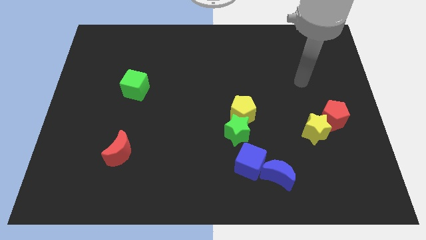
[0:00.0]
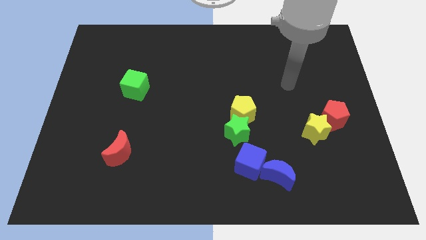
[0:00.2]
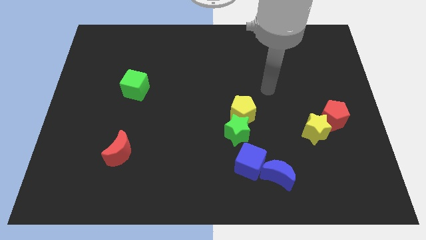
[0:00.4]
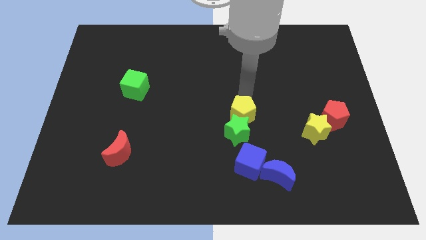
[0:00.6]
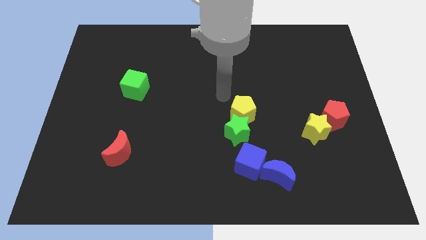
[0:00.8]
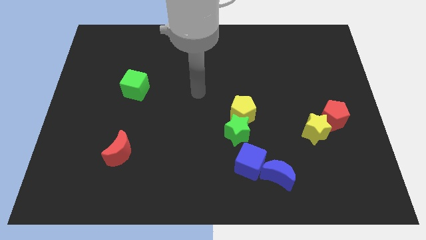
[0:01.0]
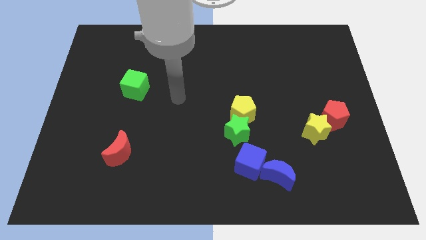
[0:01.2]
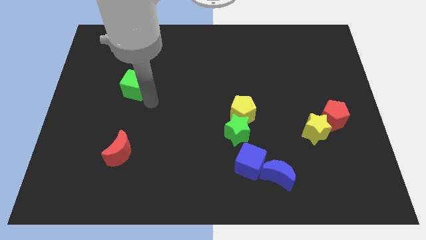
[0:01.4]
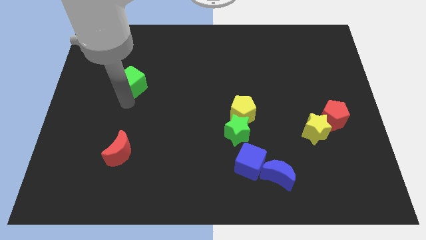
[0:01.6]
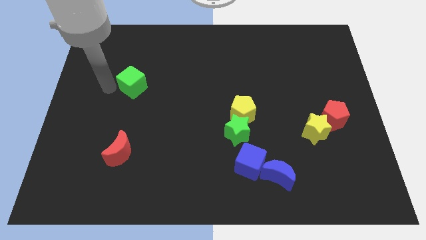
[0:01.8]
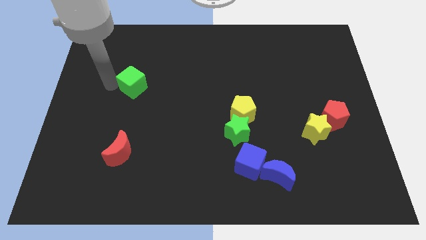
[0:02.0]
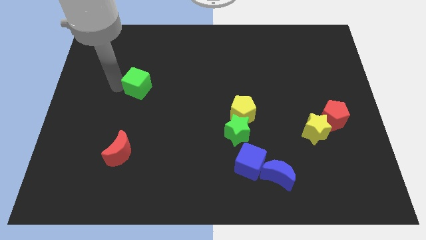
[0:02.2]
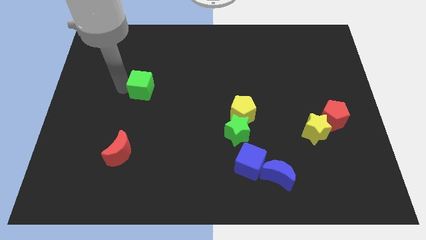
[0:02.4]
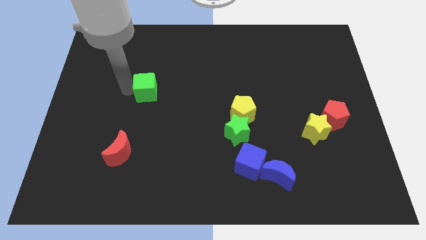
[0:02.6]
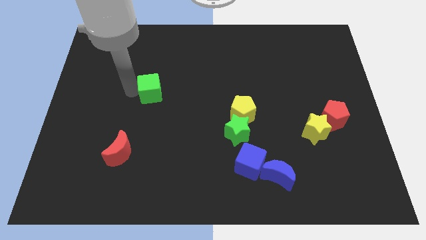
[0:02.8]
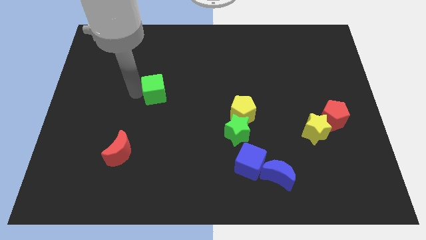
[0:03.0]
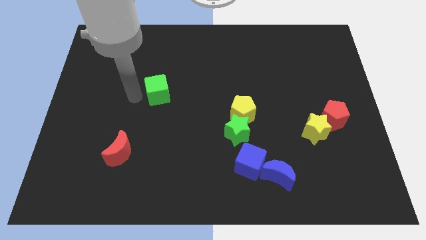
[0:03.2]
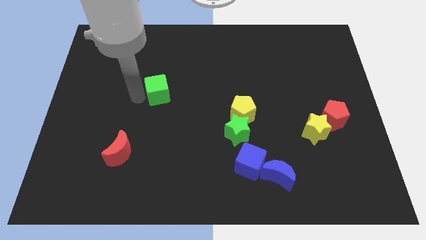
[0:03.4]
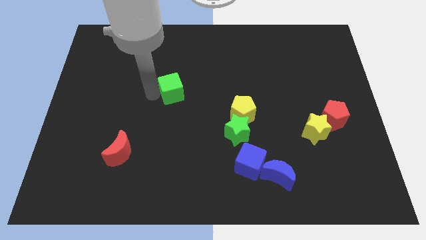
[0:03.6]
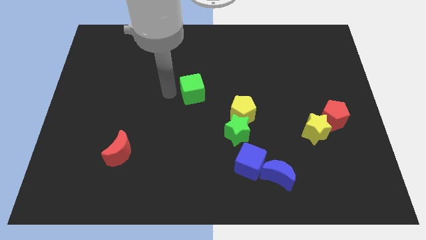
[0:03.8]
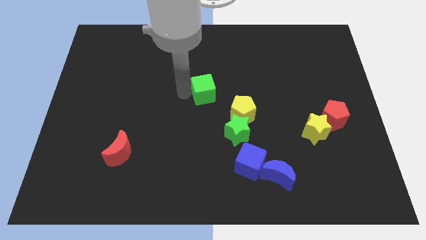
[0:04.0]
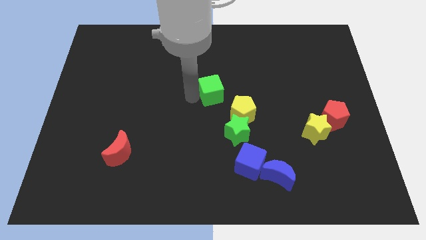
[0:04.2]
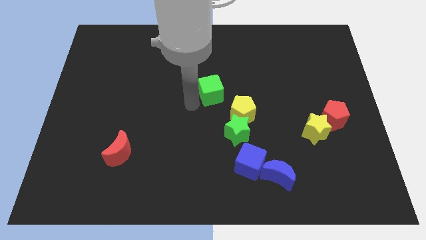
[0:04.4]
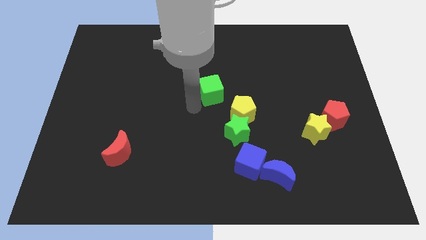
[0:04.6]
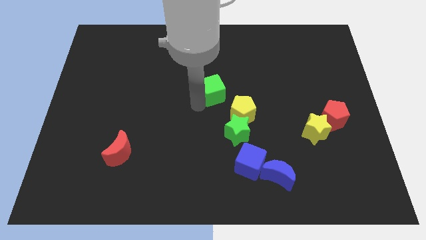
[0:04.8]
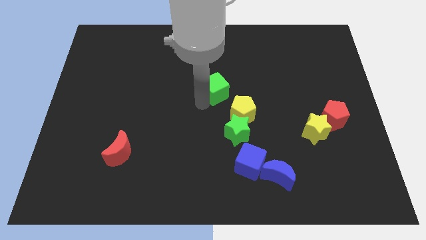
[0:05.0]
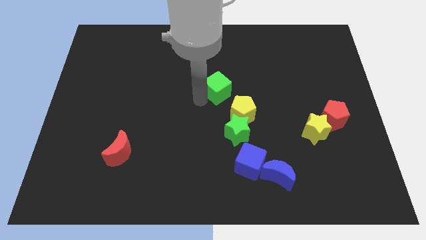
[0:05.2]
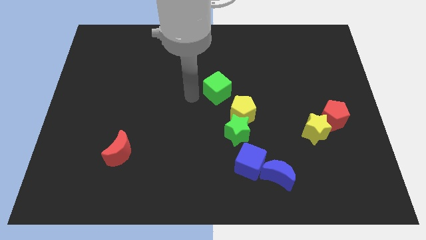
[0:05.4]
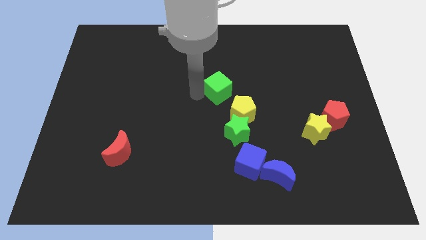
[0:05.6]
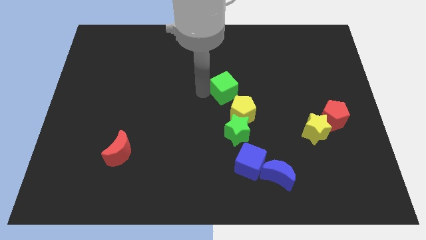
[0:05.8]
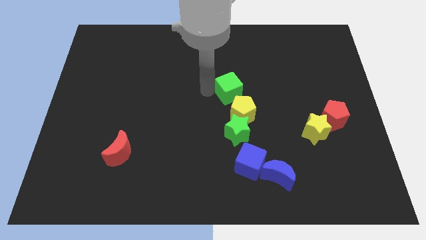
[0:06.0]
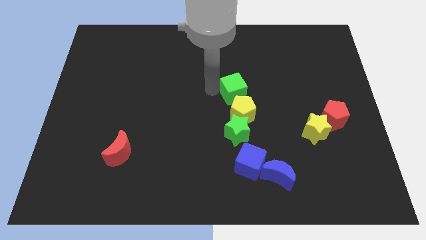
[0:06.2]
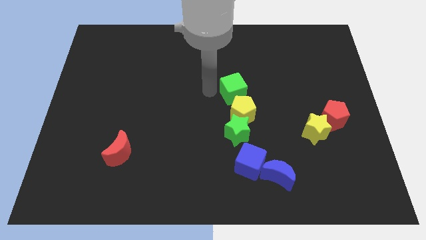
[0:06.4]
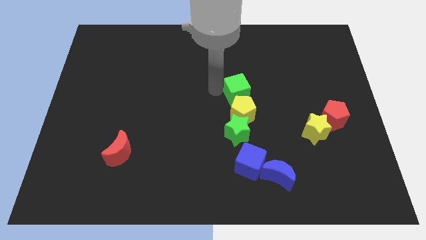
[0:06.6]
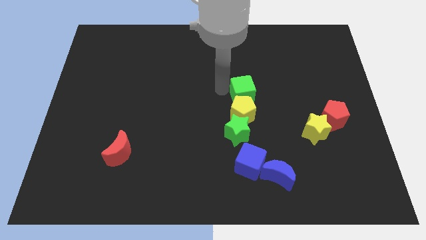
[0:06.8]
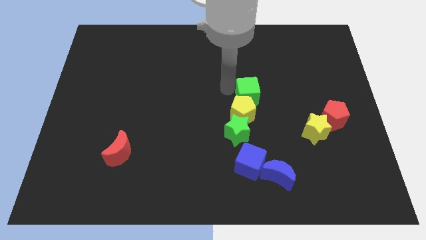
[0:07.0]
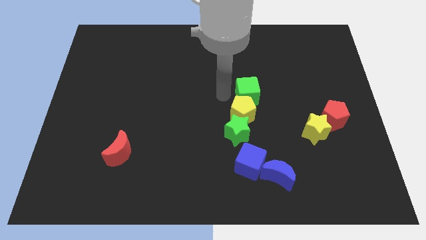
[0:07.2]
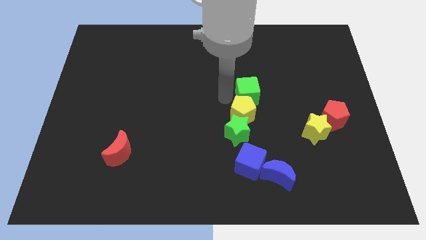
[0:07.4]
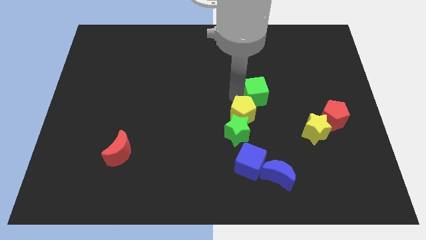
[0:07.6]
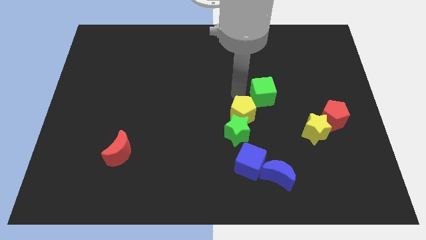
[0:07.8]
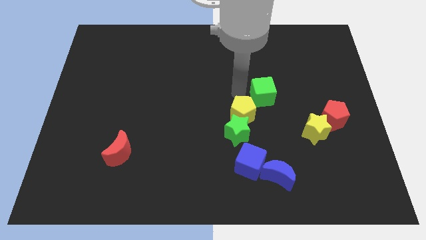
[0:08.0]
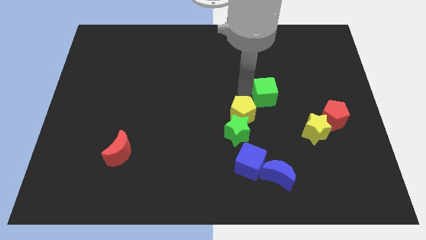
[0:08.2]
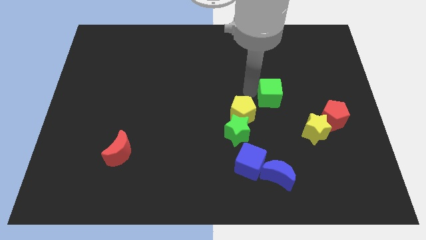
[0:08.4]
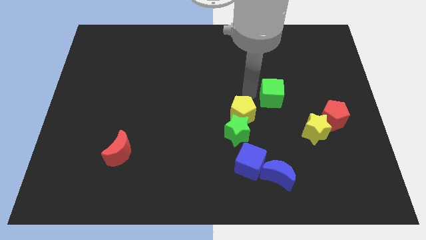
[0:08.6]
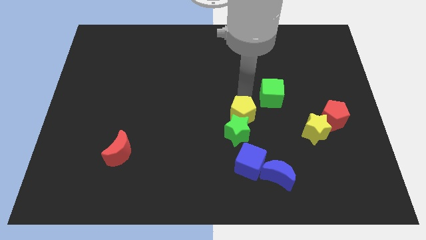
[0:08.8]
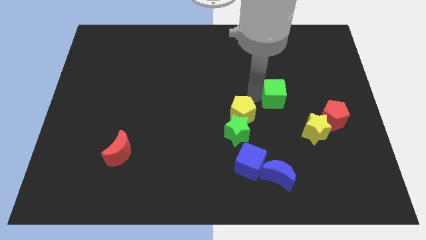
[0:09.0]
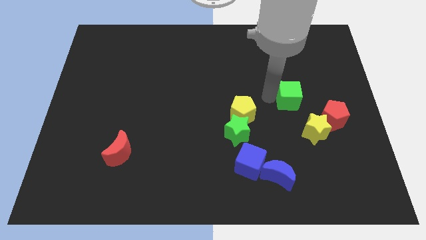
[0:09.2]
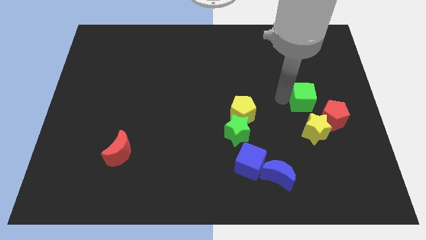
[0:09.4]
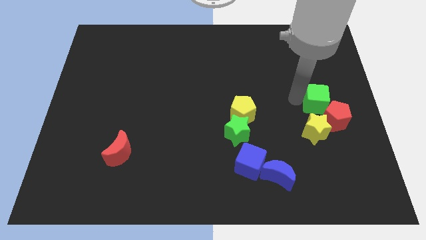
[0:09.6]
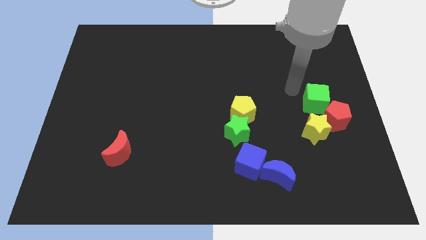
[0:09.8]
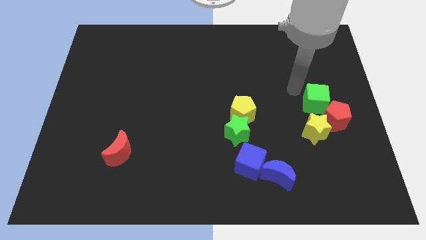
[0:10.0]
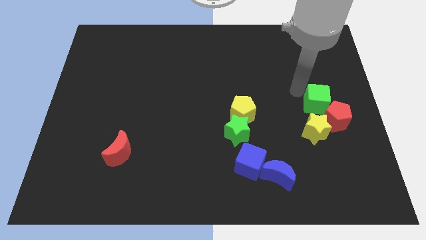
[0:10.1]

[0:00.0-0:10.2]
slide the green cube diagonally up and to the right of the yellow star

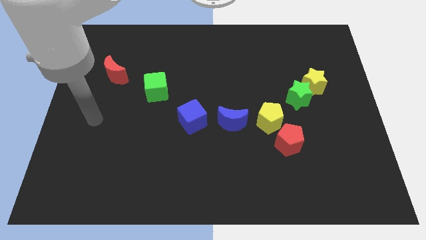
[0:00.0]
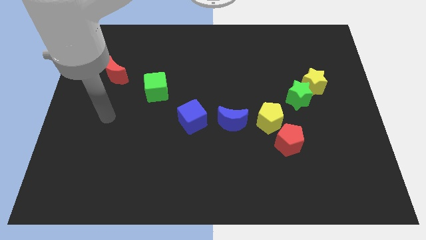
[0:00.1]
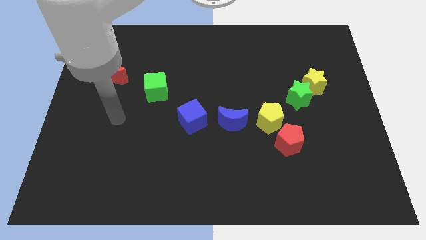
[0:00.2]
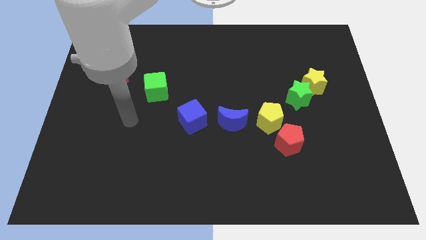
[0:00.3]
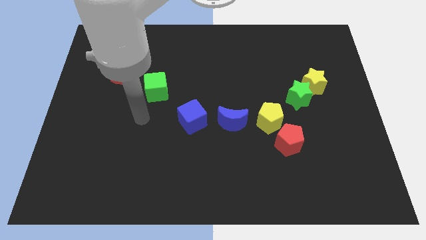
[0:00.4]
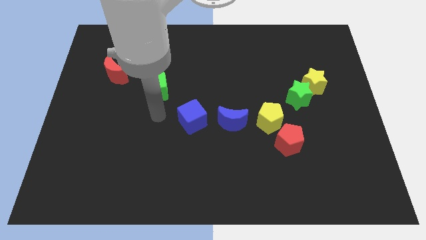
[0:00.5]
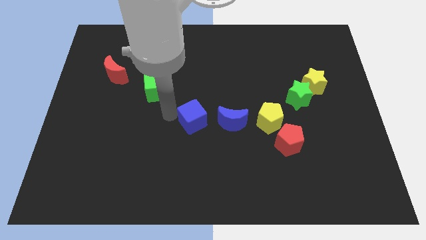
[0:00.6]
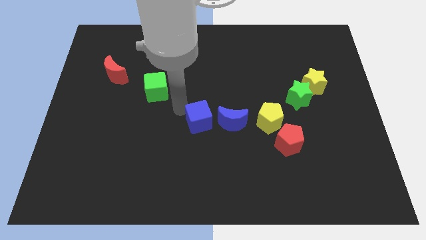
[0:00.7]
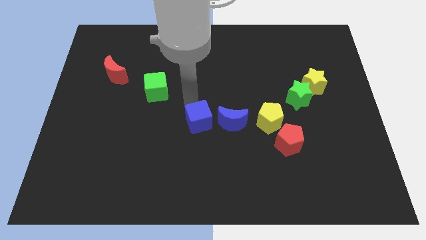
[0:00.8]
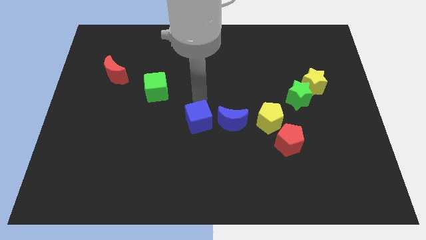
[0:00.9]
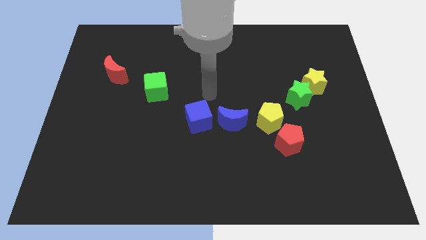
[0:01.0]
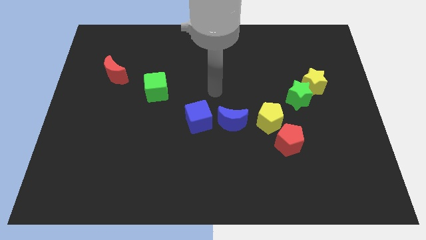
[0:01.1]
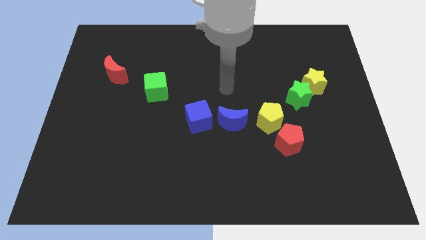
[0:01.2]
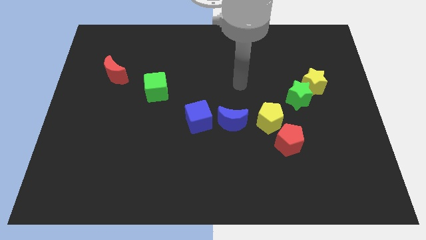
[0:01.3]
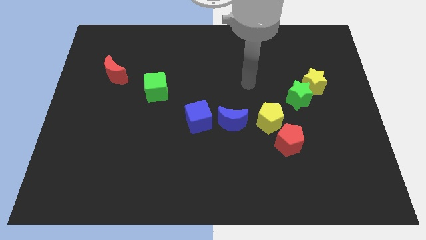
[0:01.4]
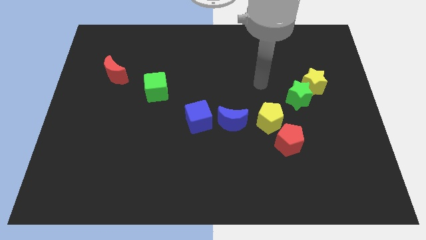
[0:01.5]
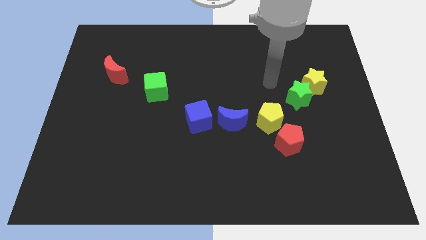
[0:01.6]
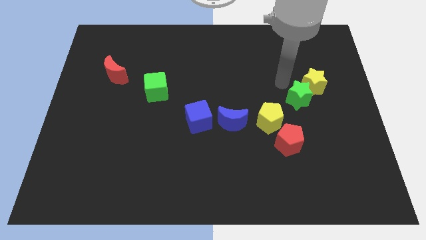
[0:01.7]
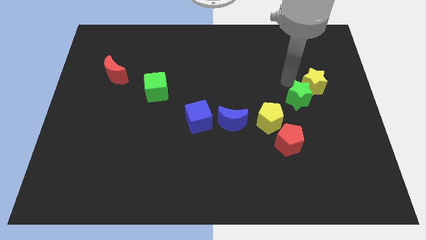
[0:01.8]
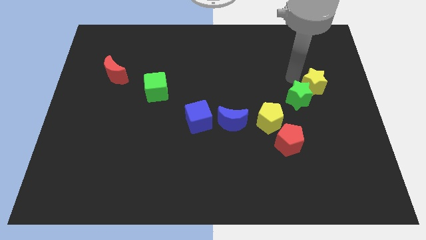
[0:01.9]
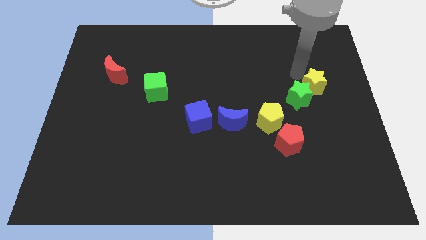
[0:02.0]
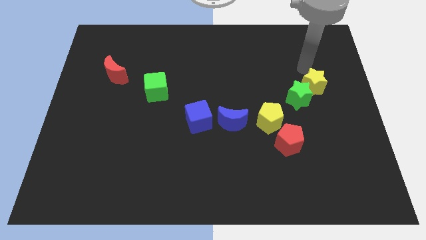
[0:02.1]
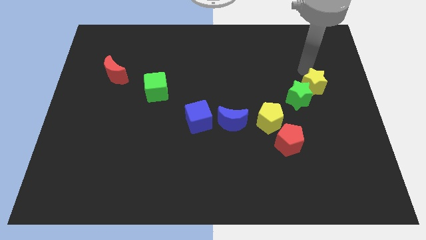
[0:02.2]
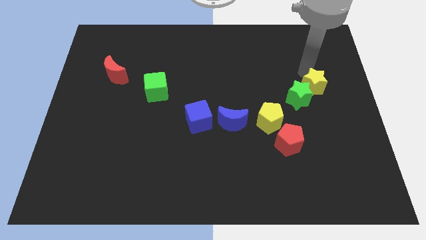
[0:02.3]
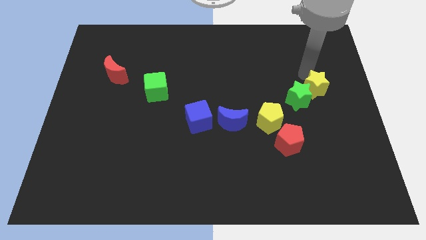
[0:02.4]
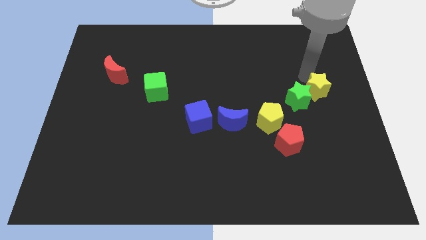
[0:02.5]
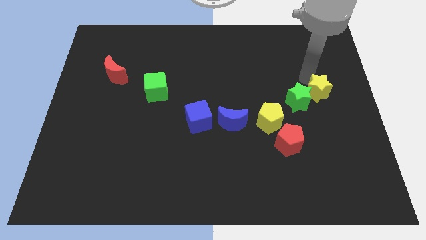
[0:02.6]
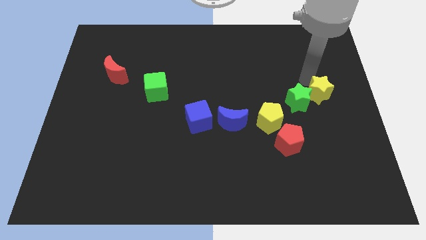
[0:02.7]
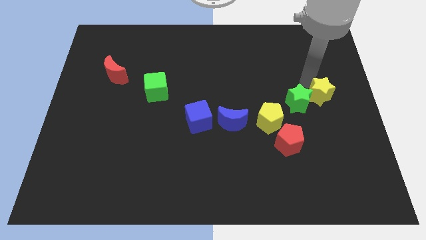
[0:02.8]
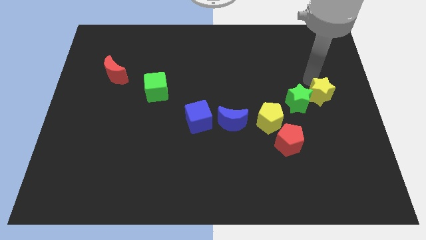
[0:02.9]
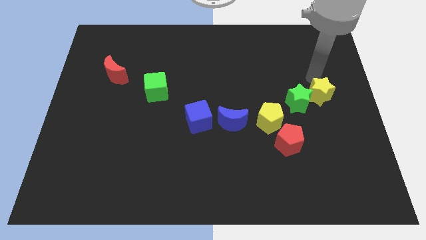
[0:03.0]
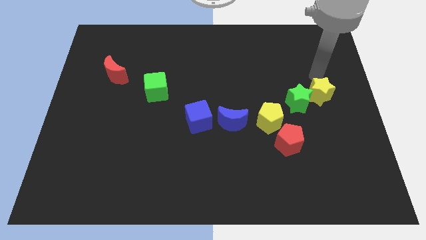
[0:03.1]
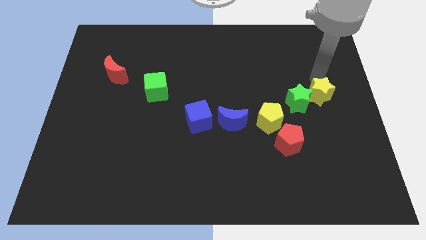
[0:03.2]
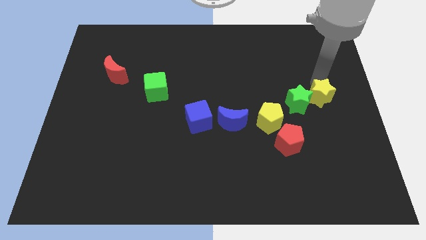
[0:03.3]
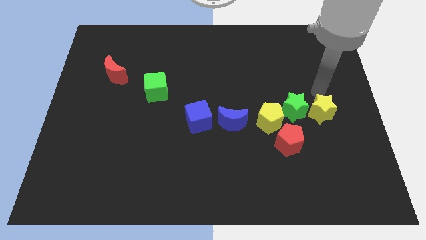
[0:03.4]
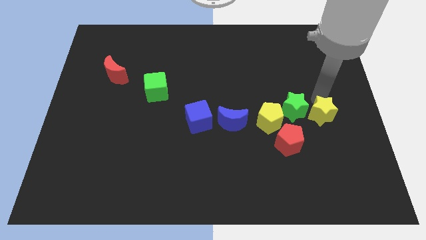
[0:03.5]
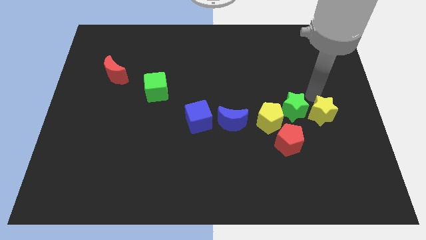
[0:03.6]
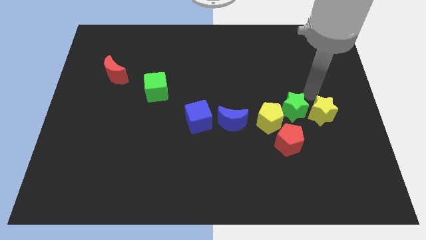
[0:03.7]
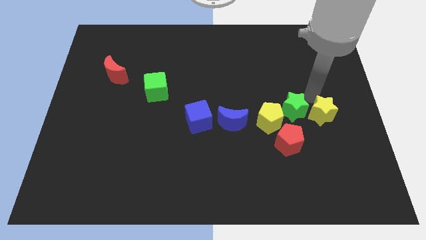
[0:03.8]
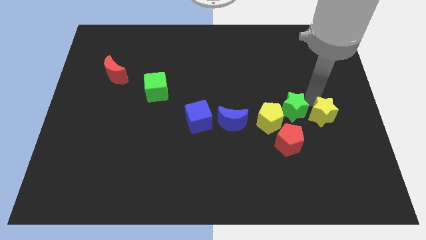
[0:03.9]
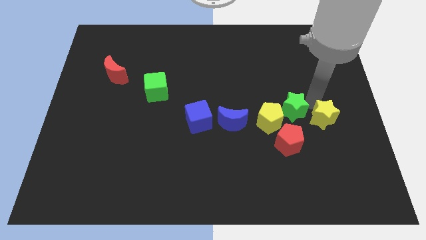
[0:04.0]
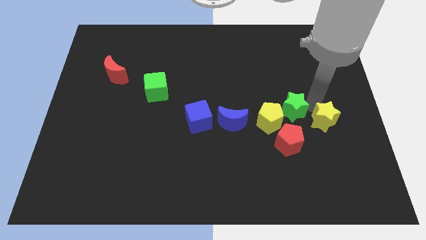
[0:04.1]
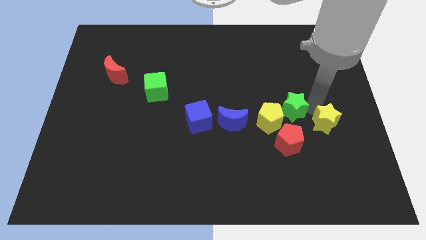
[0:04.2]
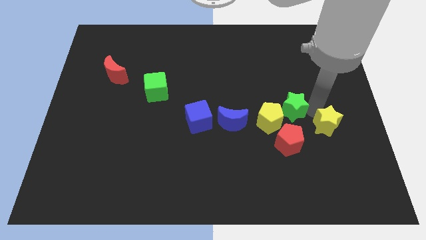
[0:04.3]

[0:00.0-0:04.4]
slide the yellow star to the right of the red pentagon
